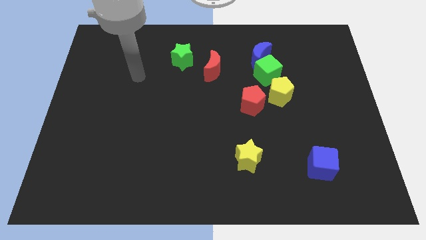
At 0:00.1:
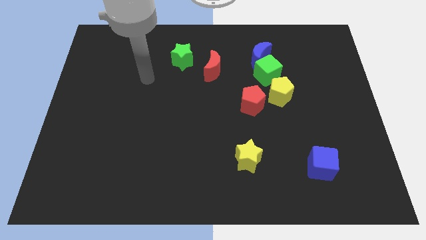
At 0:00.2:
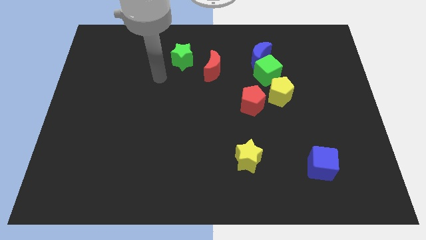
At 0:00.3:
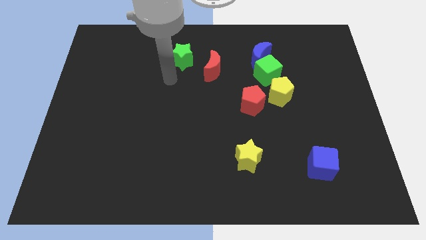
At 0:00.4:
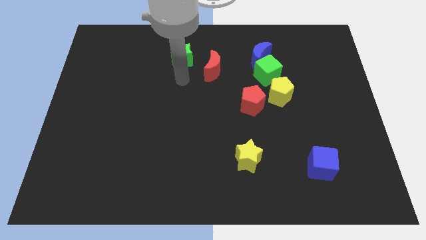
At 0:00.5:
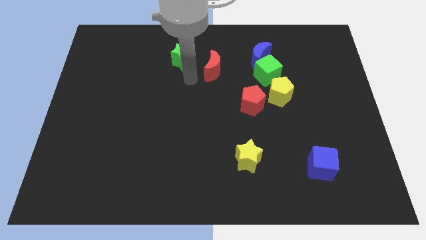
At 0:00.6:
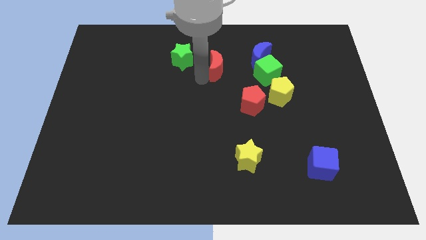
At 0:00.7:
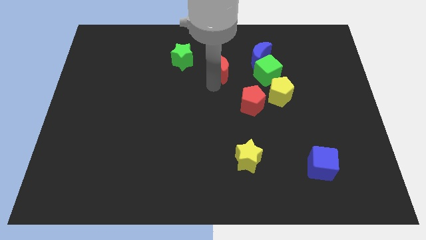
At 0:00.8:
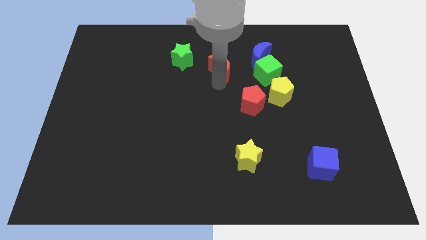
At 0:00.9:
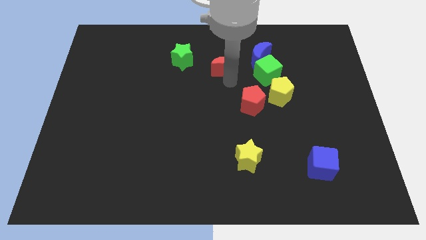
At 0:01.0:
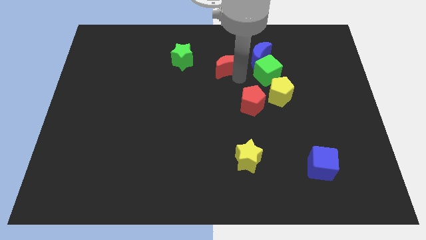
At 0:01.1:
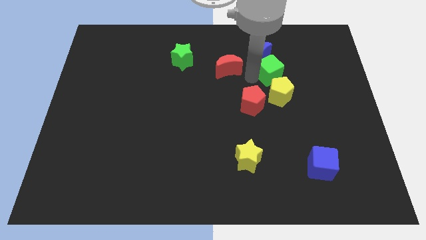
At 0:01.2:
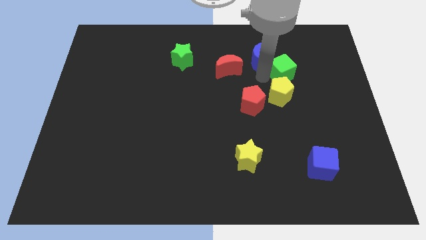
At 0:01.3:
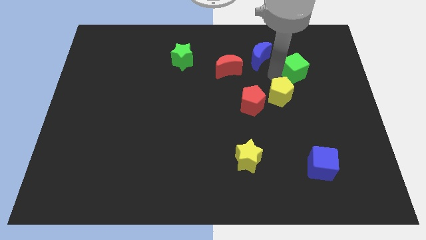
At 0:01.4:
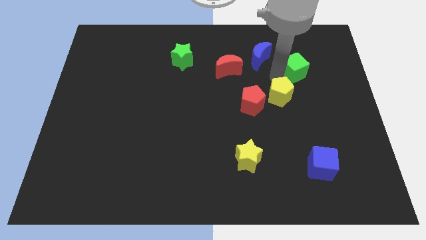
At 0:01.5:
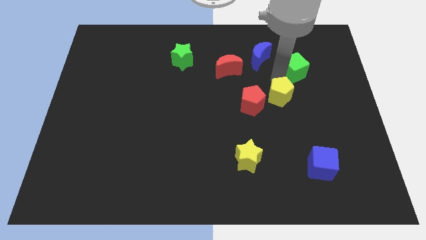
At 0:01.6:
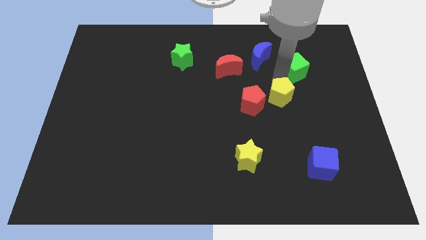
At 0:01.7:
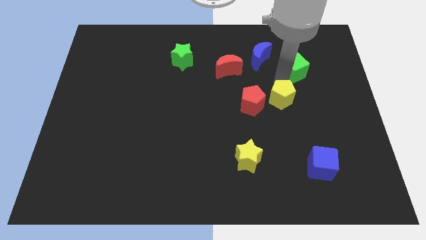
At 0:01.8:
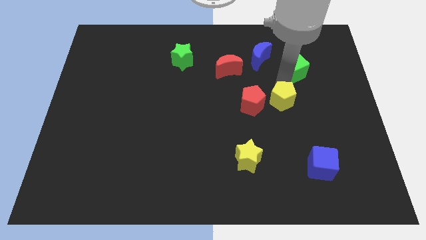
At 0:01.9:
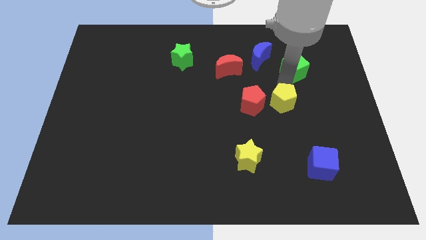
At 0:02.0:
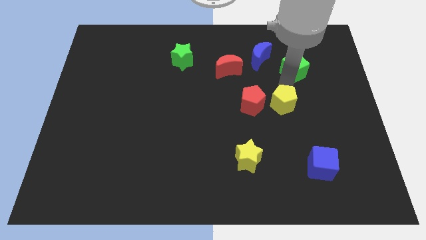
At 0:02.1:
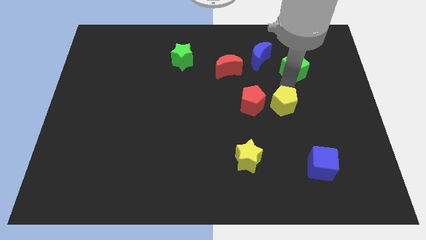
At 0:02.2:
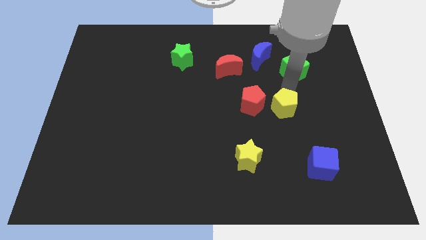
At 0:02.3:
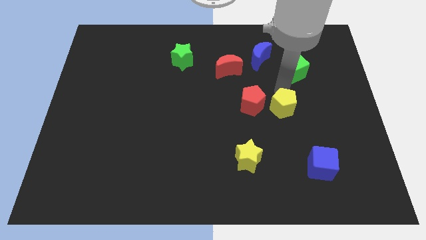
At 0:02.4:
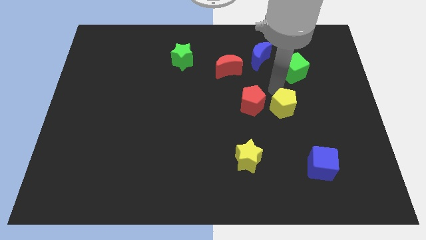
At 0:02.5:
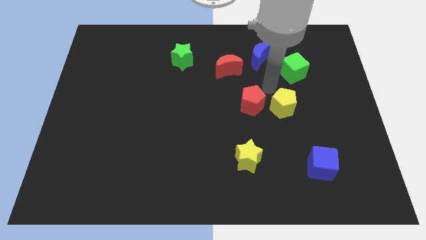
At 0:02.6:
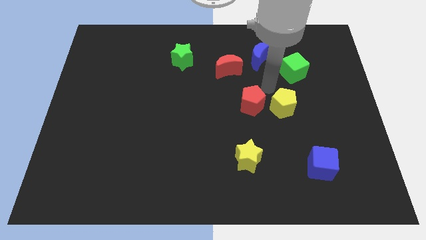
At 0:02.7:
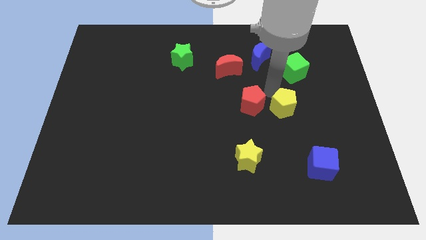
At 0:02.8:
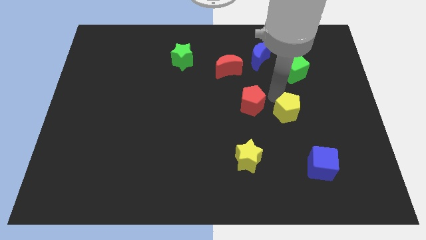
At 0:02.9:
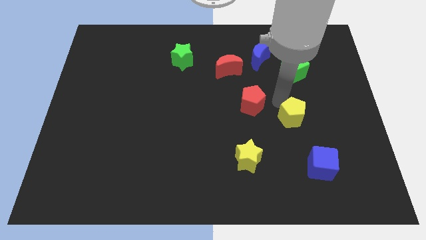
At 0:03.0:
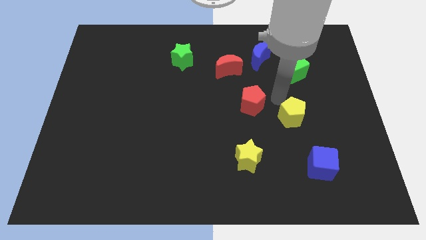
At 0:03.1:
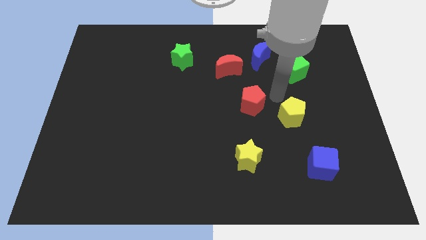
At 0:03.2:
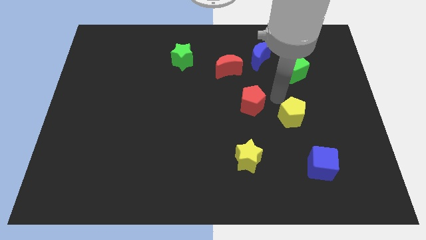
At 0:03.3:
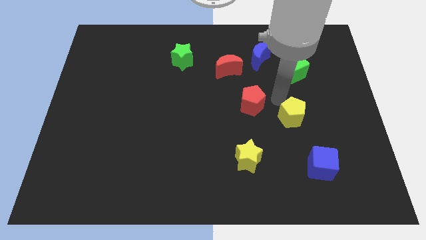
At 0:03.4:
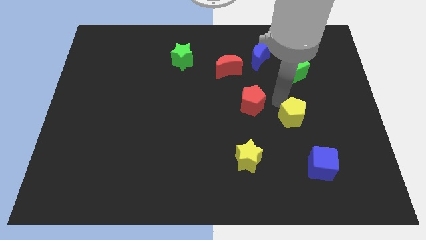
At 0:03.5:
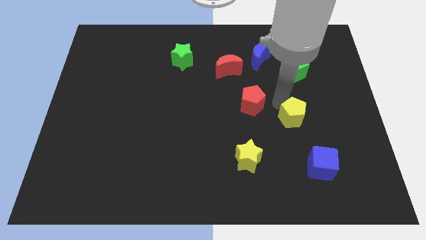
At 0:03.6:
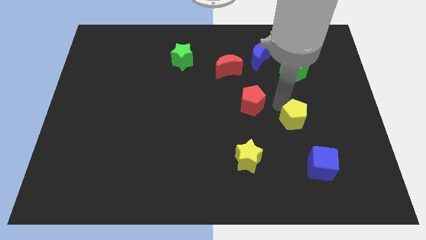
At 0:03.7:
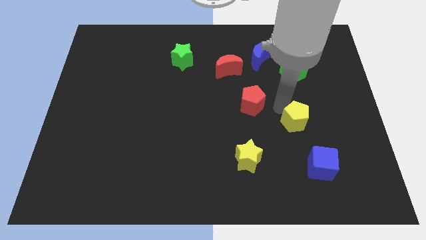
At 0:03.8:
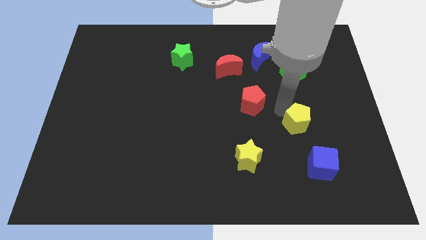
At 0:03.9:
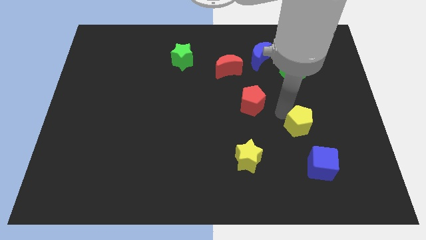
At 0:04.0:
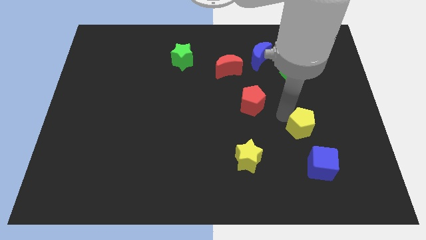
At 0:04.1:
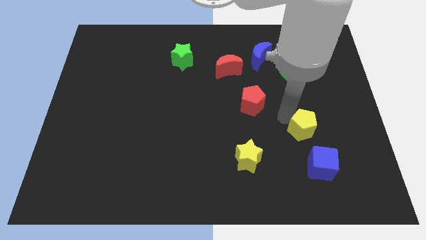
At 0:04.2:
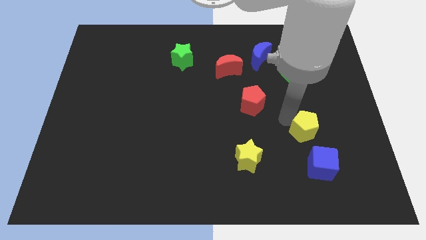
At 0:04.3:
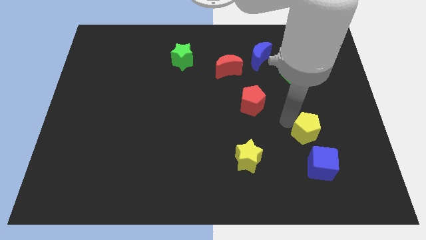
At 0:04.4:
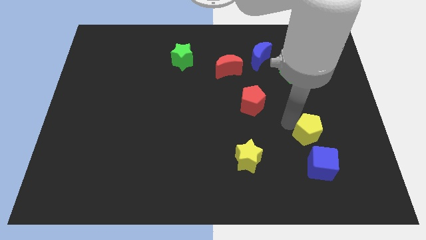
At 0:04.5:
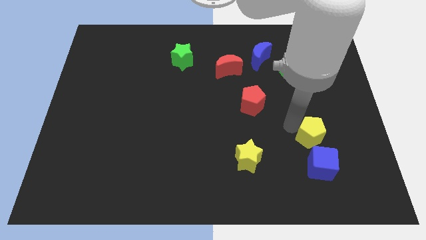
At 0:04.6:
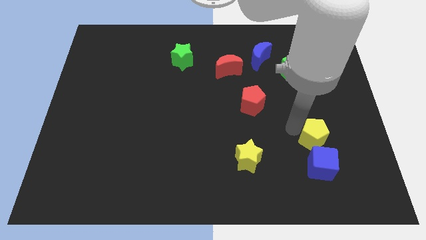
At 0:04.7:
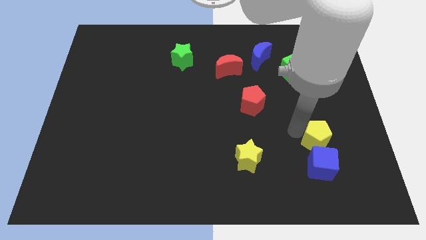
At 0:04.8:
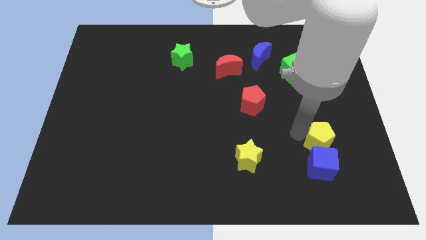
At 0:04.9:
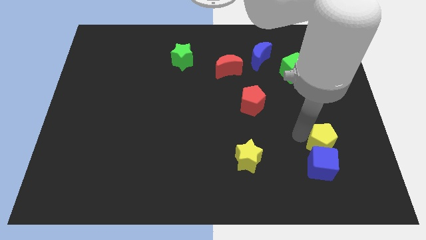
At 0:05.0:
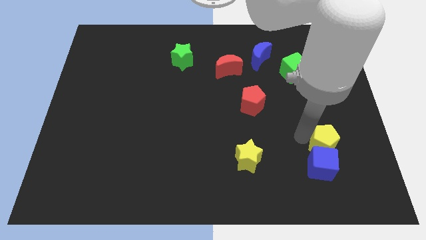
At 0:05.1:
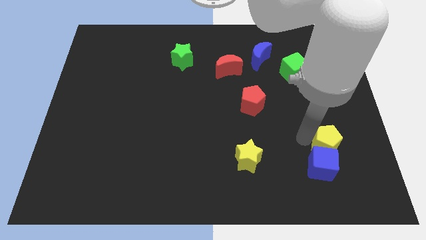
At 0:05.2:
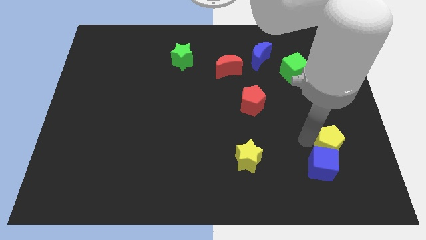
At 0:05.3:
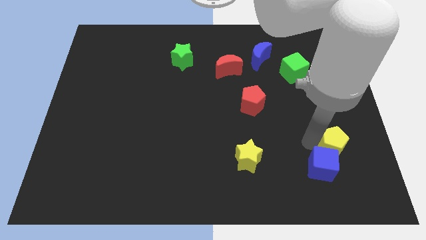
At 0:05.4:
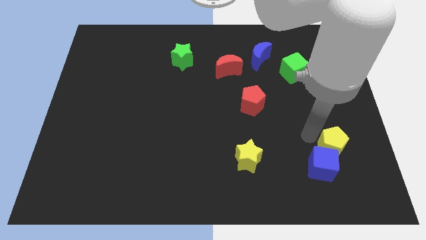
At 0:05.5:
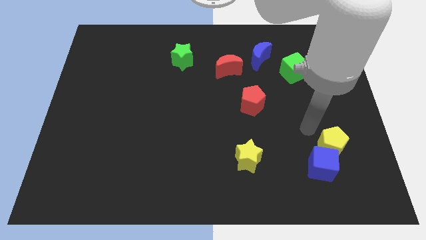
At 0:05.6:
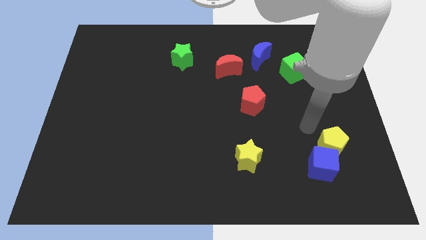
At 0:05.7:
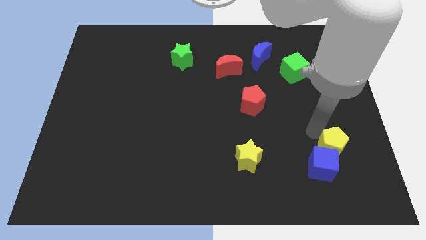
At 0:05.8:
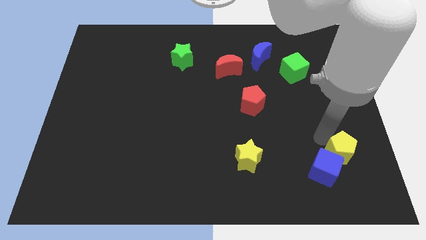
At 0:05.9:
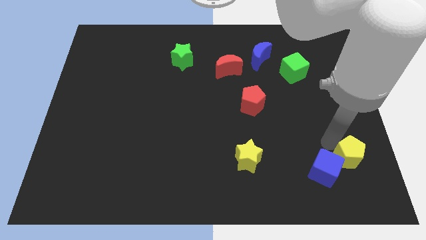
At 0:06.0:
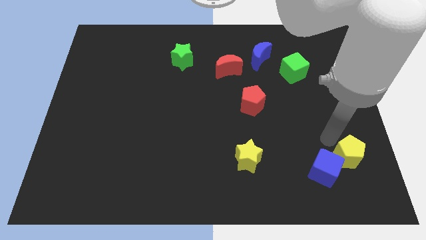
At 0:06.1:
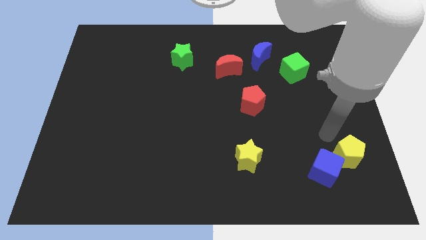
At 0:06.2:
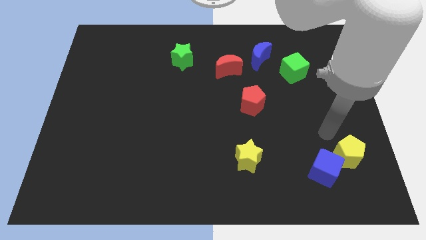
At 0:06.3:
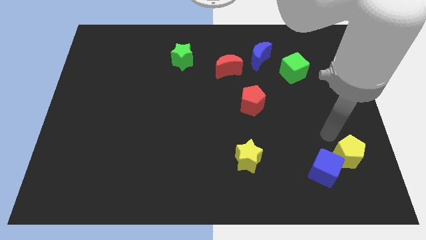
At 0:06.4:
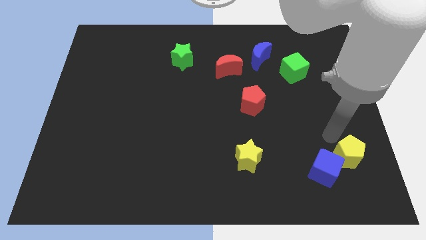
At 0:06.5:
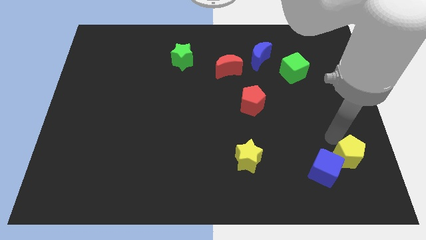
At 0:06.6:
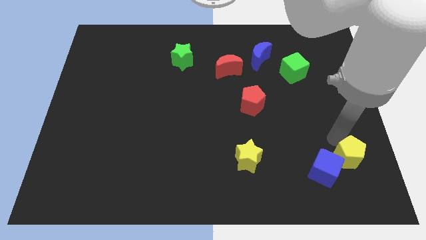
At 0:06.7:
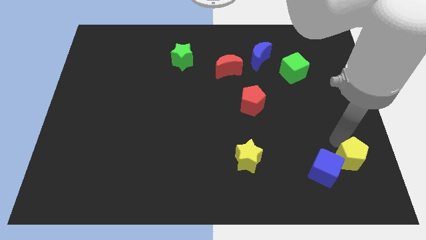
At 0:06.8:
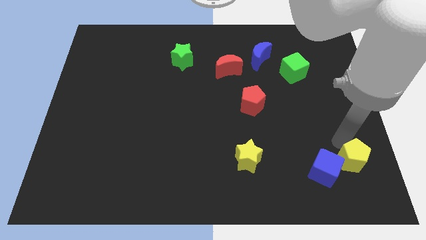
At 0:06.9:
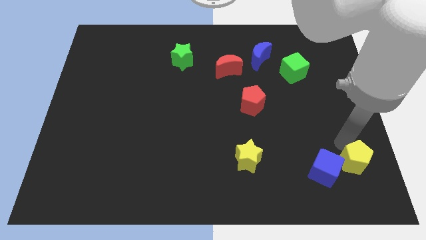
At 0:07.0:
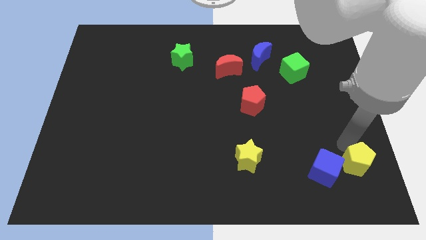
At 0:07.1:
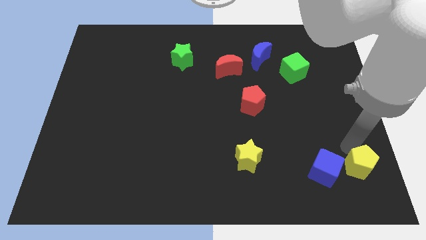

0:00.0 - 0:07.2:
slide the yellow pentagon to the bottom right of the board

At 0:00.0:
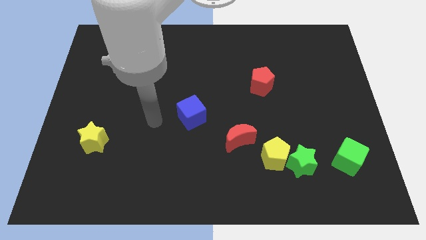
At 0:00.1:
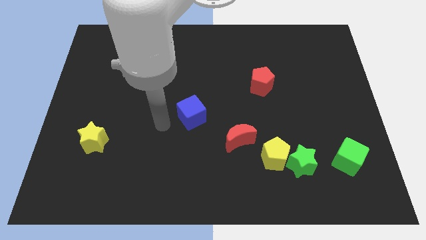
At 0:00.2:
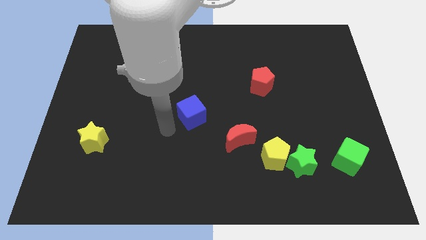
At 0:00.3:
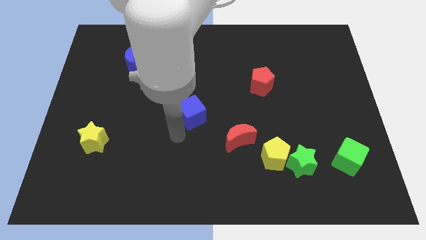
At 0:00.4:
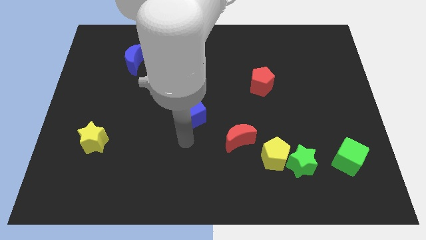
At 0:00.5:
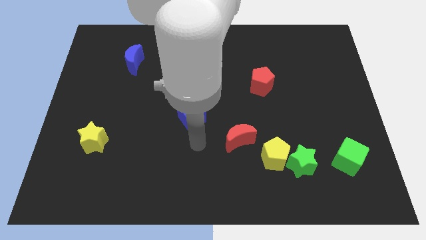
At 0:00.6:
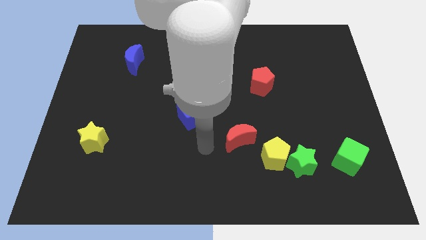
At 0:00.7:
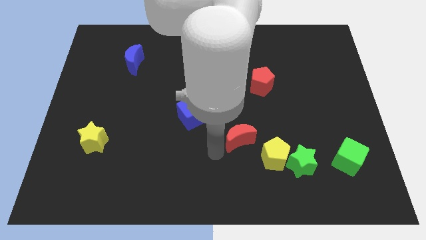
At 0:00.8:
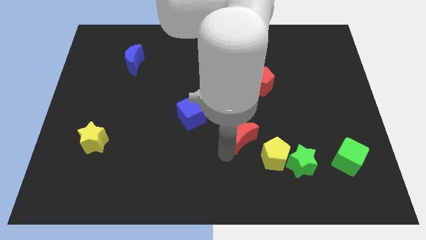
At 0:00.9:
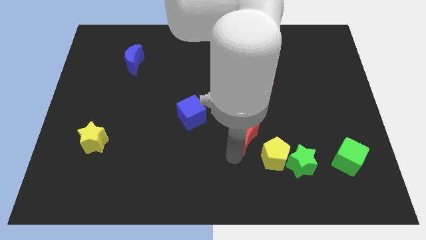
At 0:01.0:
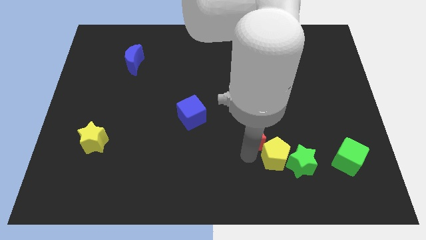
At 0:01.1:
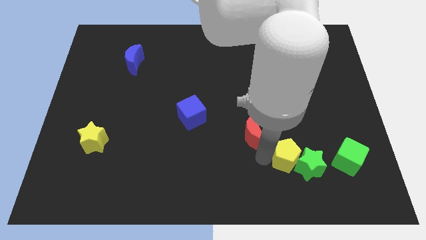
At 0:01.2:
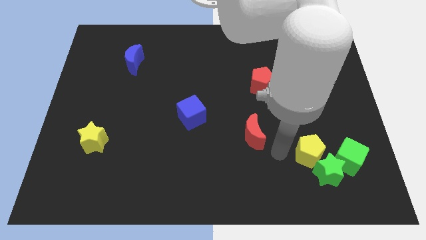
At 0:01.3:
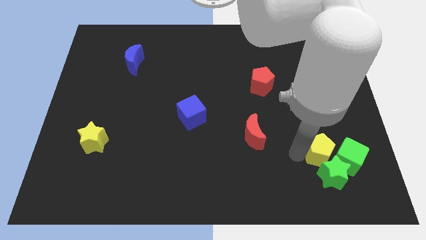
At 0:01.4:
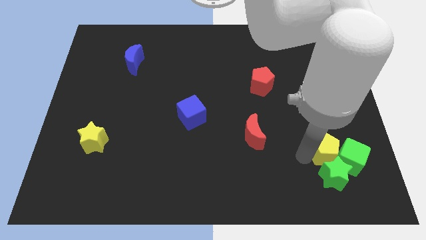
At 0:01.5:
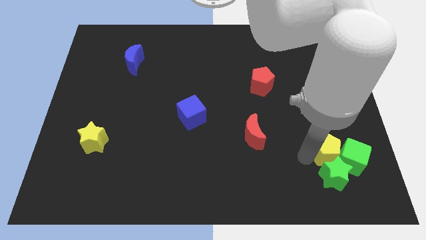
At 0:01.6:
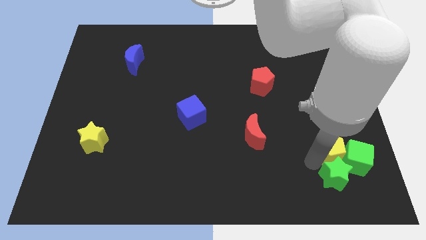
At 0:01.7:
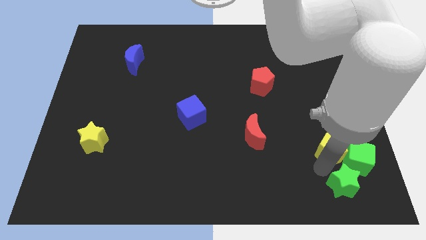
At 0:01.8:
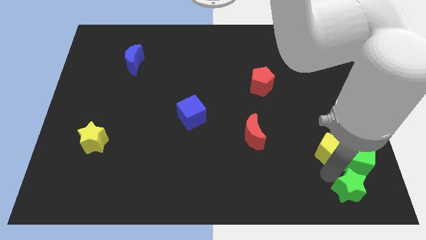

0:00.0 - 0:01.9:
put the green star to the bottom right
